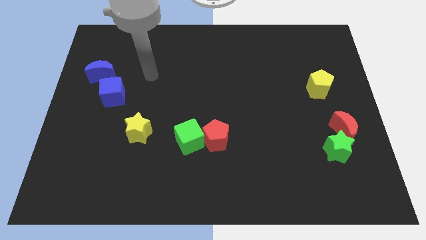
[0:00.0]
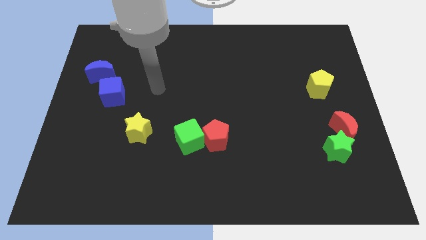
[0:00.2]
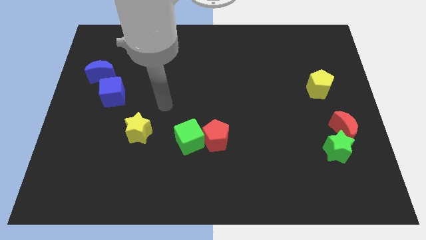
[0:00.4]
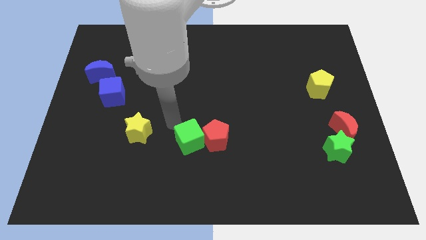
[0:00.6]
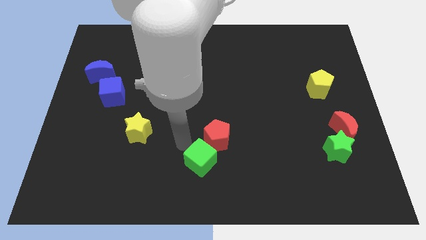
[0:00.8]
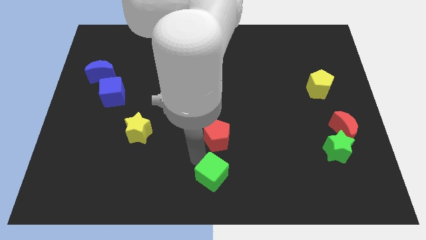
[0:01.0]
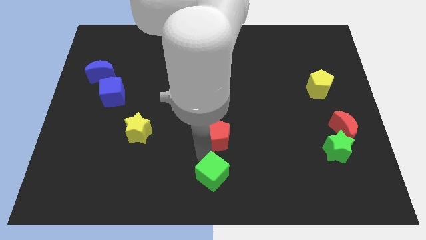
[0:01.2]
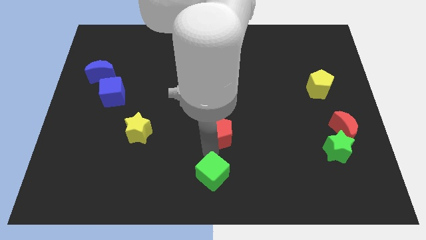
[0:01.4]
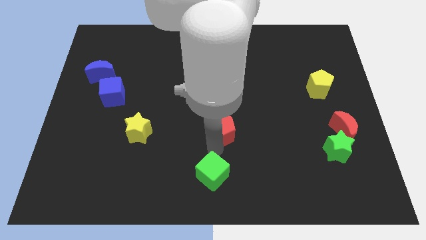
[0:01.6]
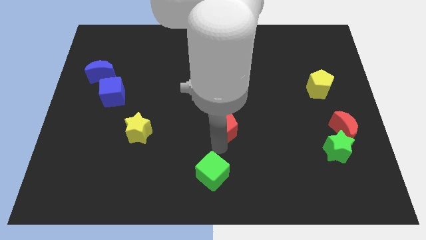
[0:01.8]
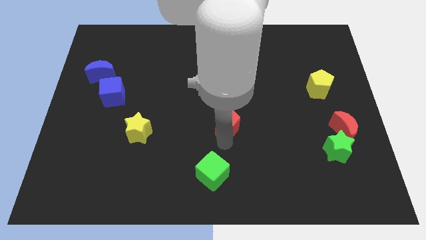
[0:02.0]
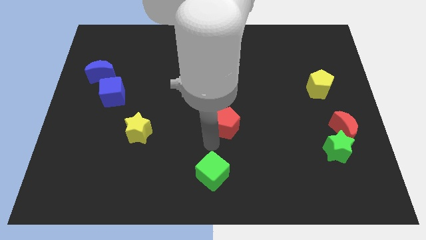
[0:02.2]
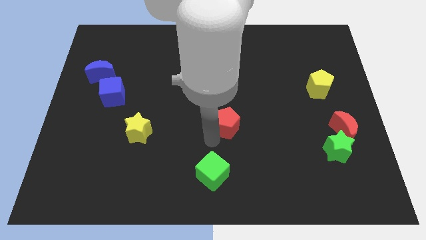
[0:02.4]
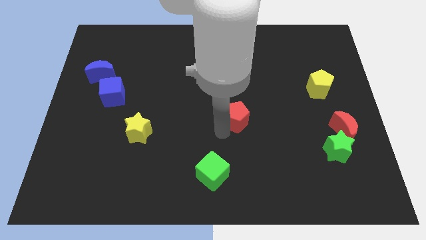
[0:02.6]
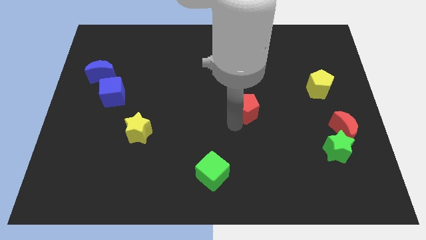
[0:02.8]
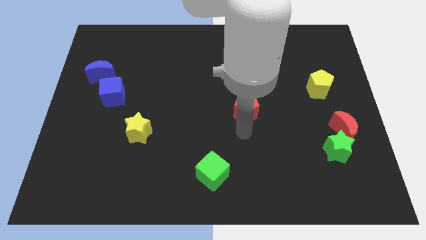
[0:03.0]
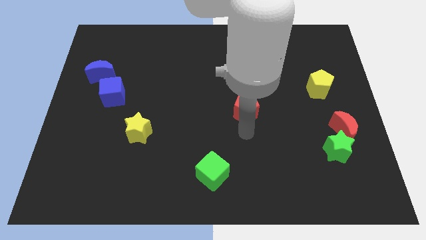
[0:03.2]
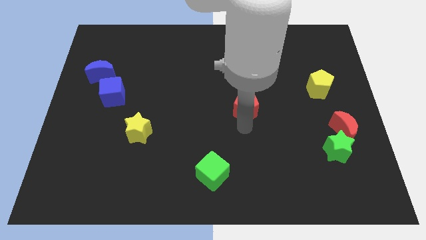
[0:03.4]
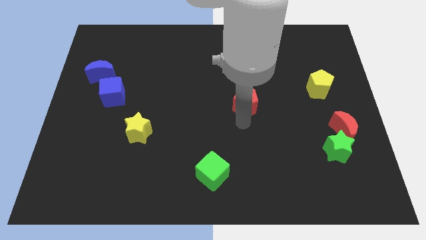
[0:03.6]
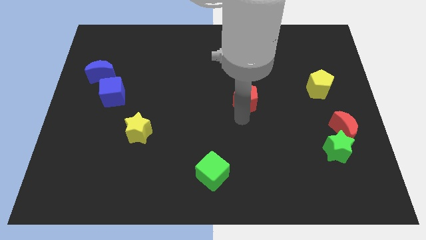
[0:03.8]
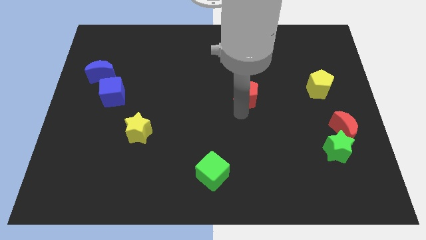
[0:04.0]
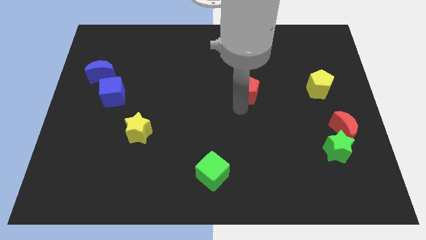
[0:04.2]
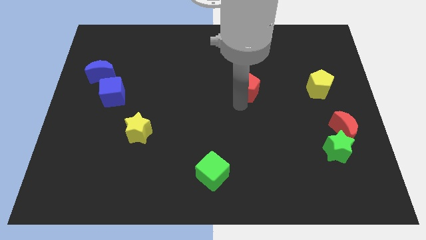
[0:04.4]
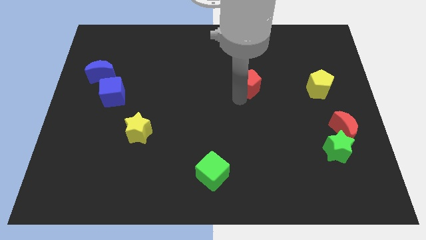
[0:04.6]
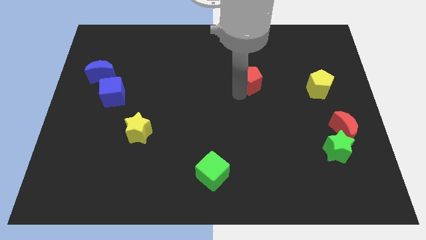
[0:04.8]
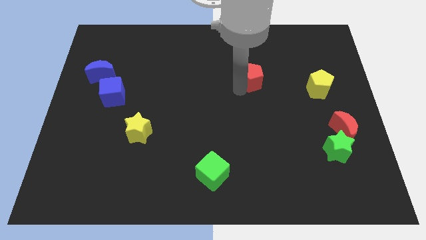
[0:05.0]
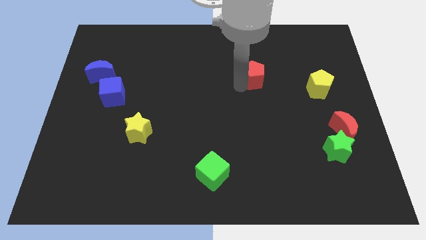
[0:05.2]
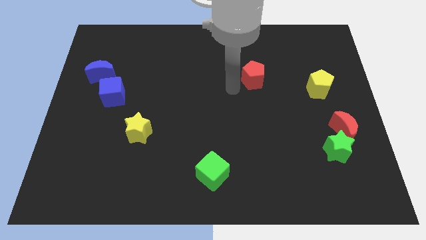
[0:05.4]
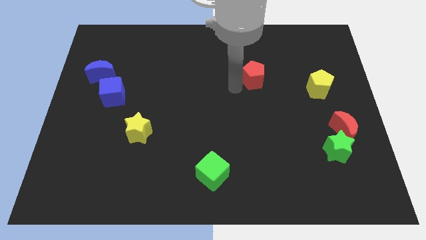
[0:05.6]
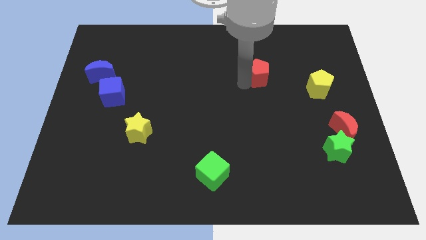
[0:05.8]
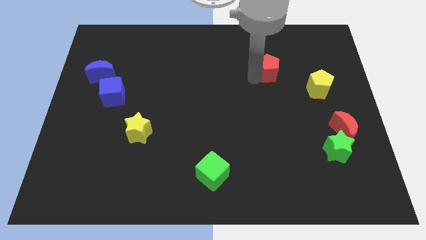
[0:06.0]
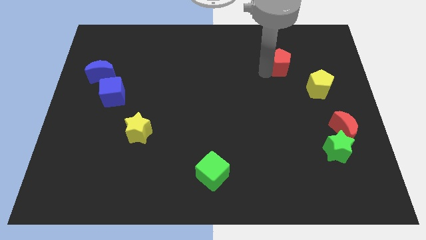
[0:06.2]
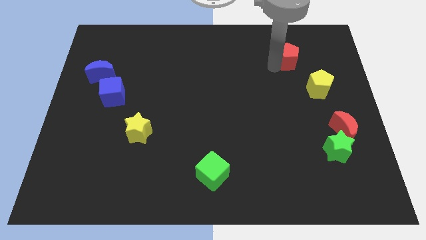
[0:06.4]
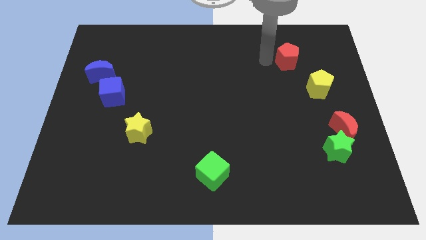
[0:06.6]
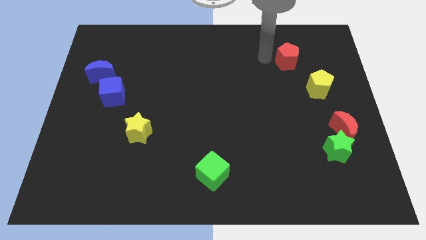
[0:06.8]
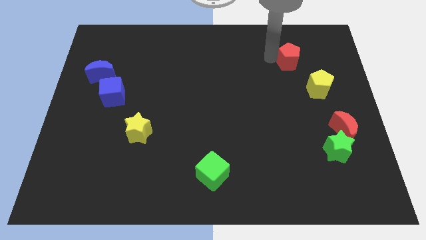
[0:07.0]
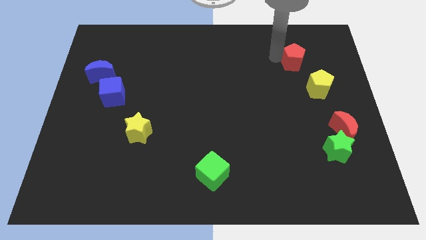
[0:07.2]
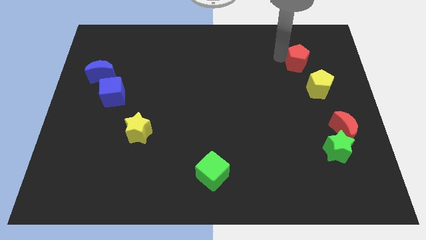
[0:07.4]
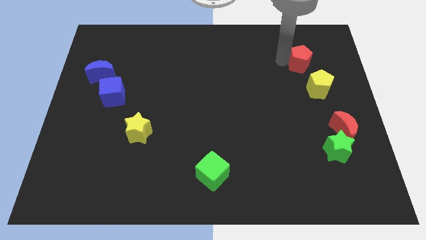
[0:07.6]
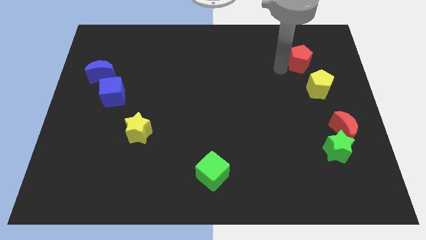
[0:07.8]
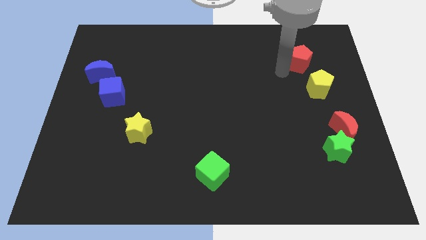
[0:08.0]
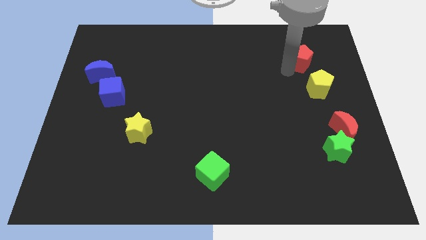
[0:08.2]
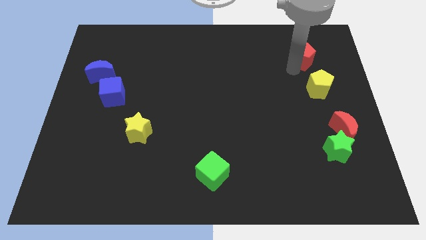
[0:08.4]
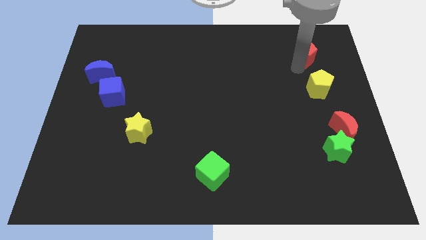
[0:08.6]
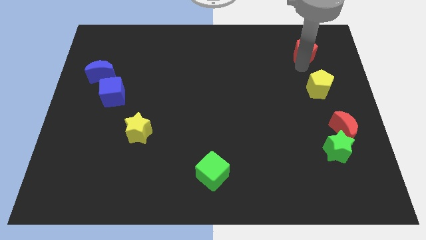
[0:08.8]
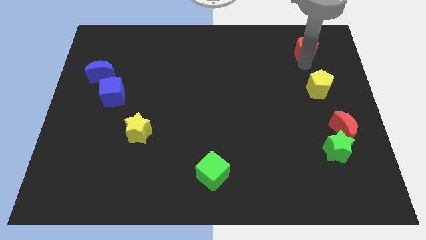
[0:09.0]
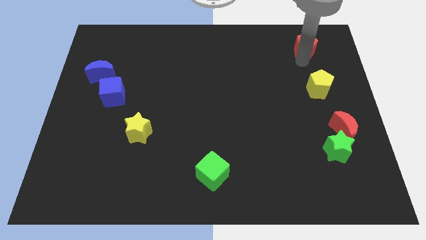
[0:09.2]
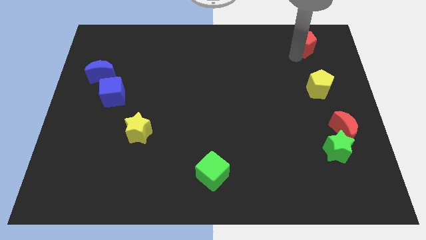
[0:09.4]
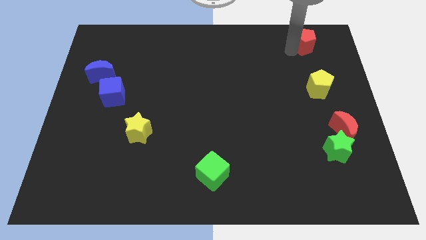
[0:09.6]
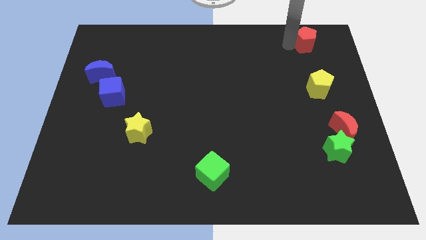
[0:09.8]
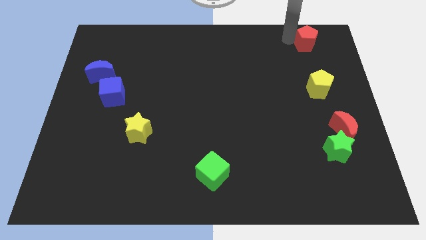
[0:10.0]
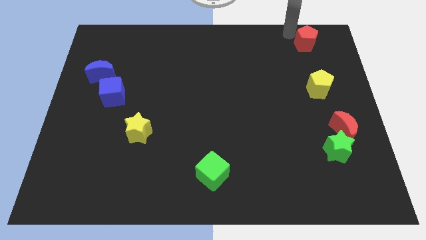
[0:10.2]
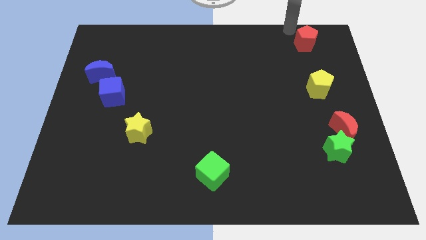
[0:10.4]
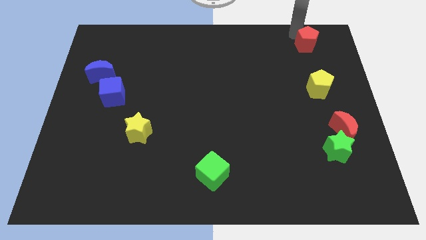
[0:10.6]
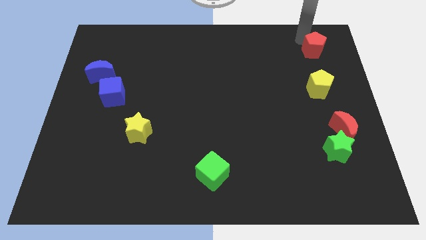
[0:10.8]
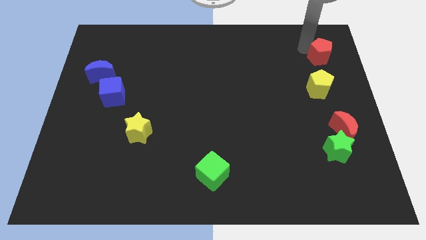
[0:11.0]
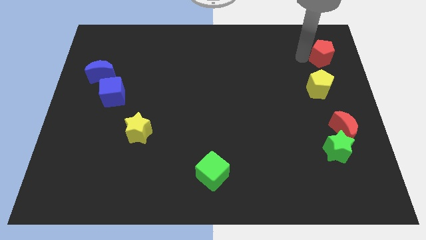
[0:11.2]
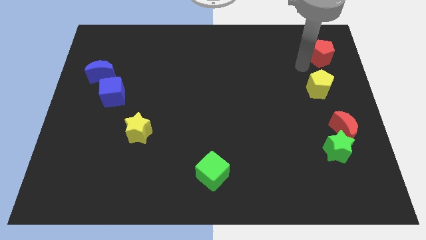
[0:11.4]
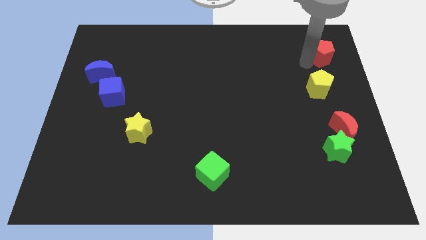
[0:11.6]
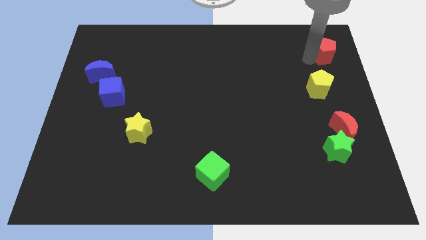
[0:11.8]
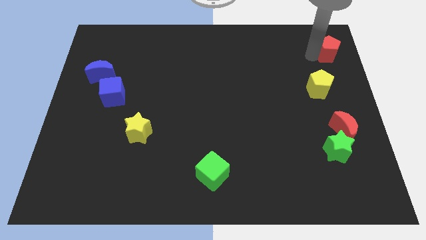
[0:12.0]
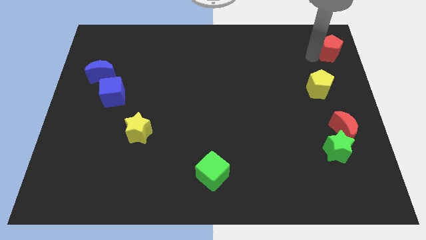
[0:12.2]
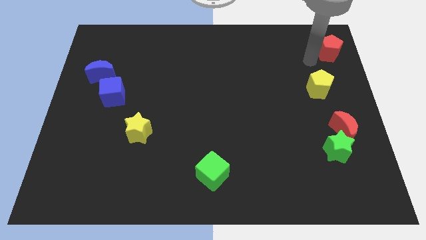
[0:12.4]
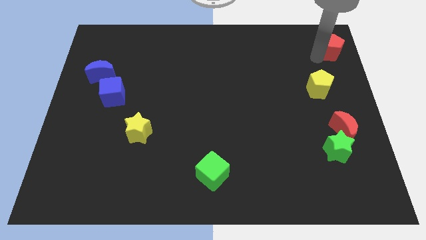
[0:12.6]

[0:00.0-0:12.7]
move the red pentagon to the upper right corner

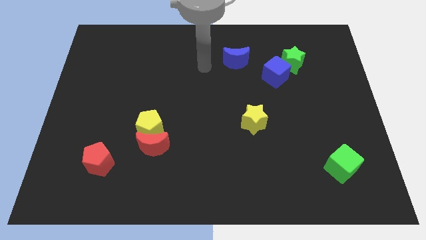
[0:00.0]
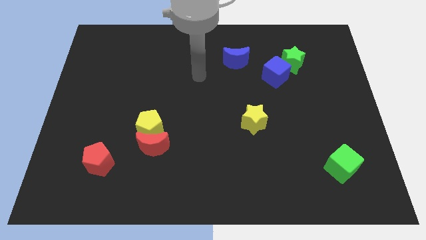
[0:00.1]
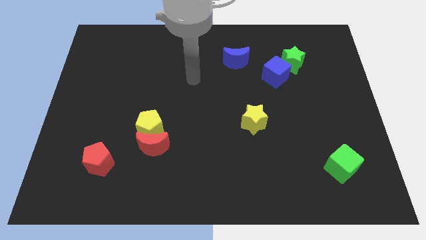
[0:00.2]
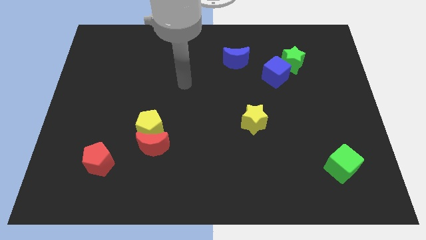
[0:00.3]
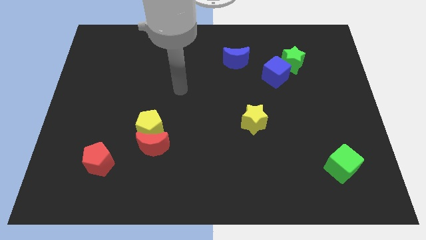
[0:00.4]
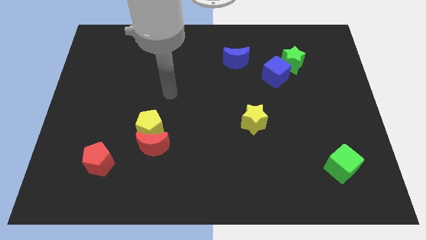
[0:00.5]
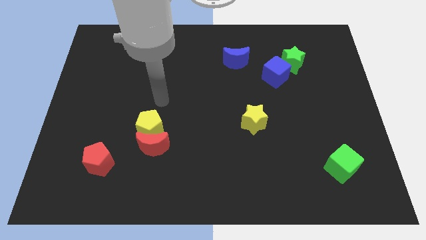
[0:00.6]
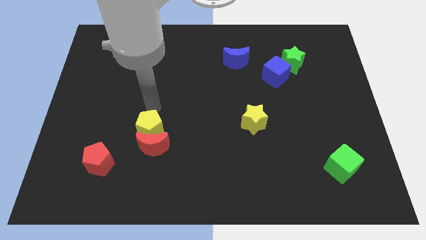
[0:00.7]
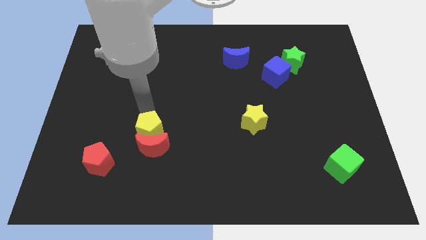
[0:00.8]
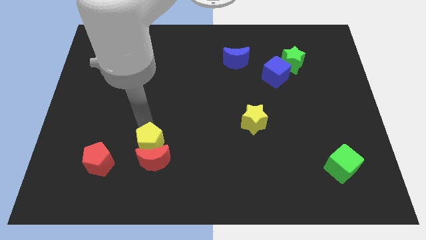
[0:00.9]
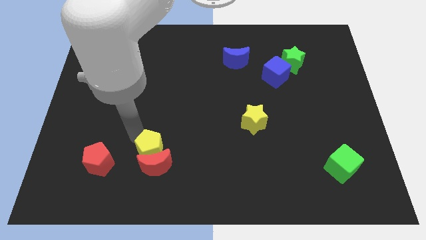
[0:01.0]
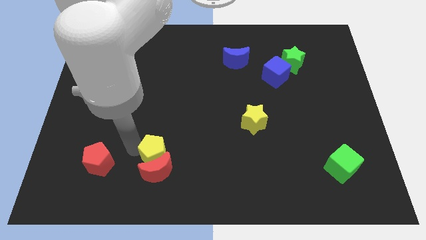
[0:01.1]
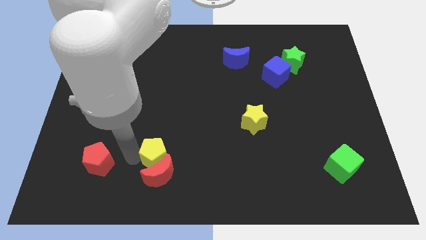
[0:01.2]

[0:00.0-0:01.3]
put the red moon to the bottom side
